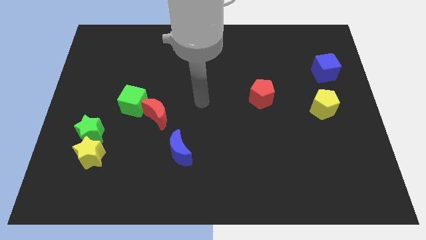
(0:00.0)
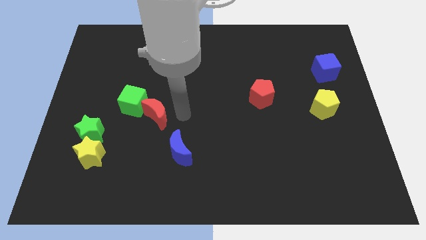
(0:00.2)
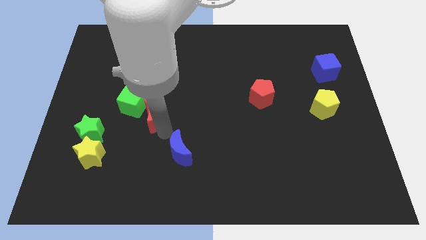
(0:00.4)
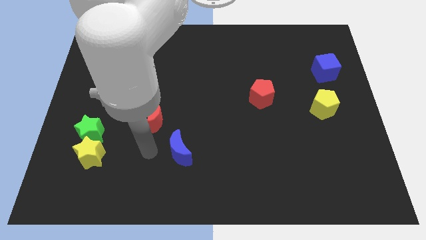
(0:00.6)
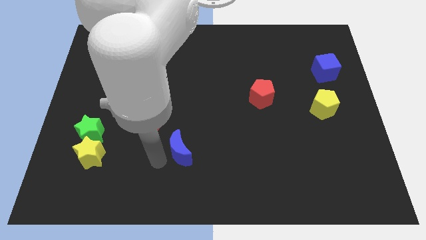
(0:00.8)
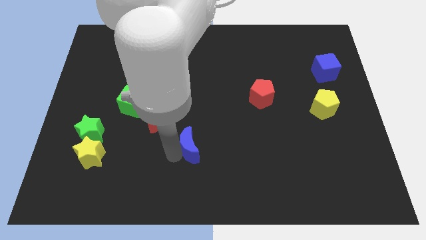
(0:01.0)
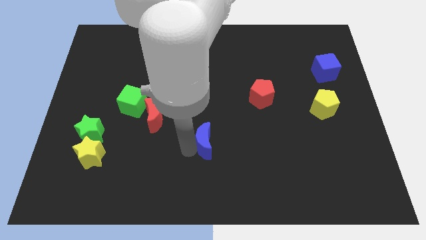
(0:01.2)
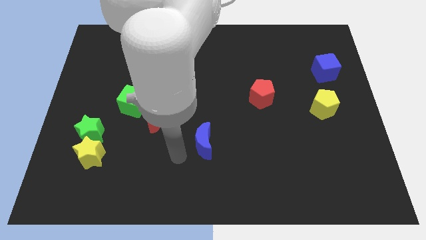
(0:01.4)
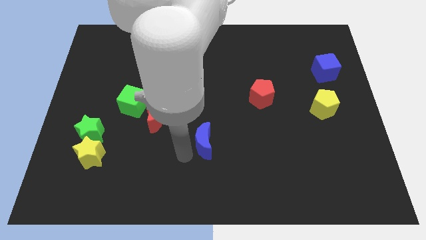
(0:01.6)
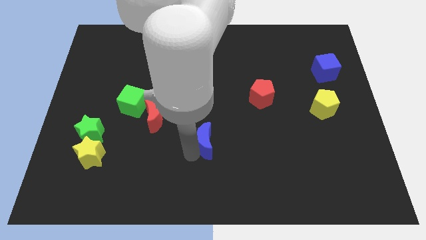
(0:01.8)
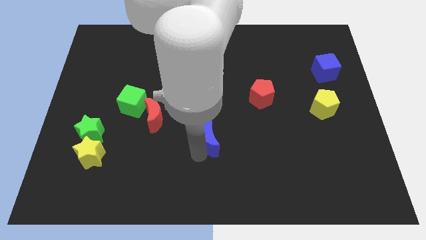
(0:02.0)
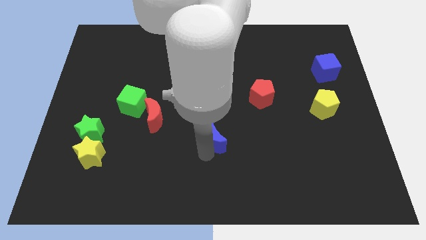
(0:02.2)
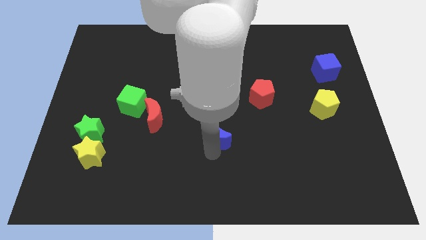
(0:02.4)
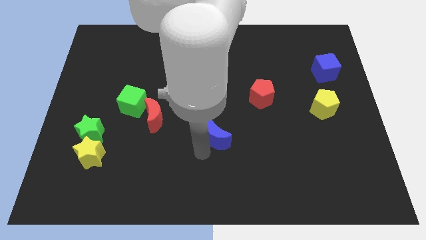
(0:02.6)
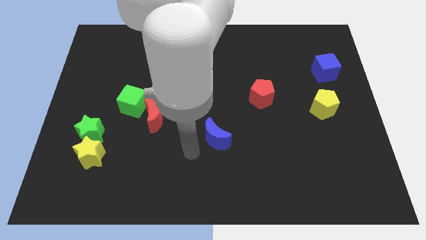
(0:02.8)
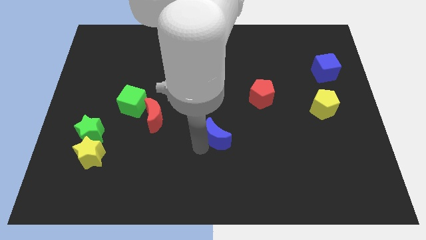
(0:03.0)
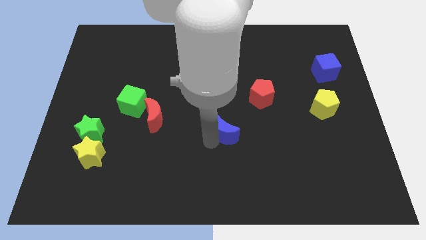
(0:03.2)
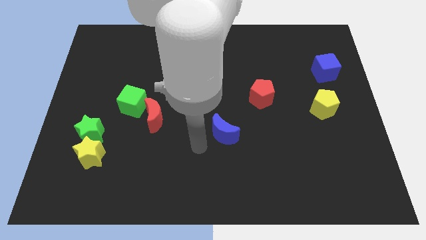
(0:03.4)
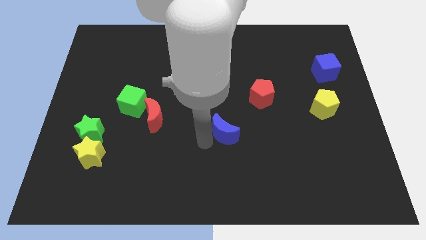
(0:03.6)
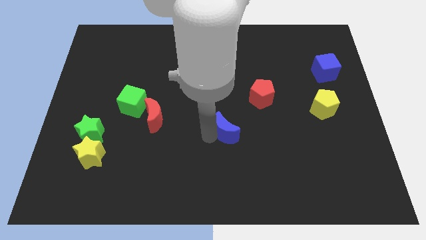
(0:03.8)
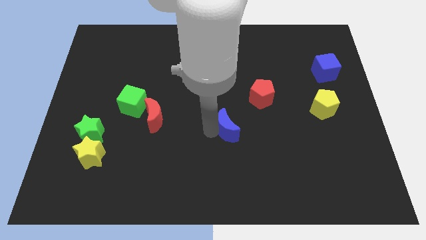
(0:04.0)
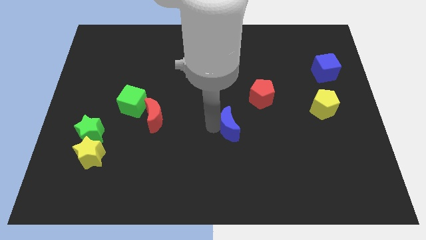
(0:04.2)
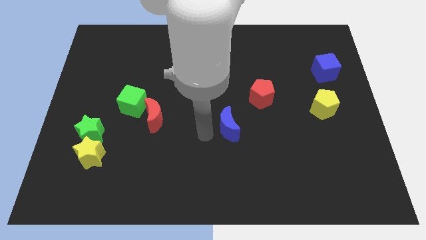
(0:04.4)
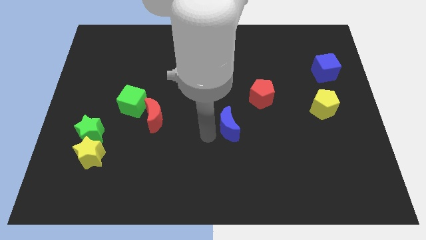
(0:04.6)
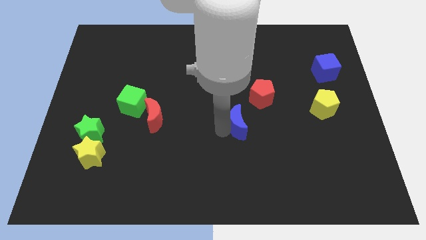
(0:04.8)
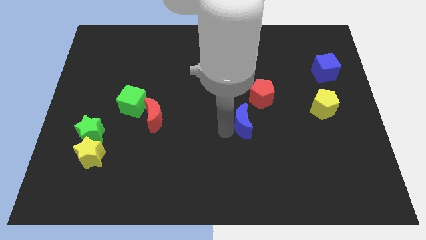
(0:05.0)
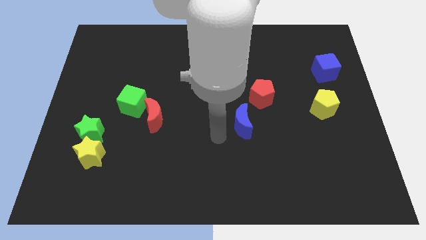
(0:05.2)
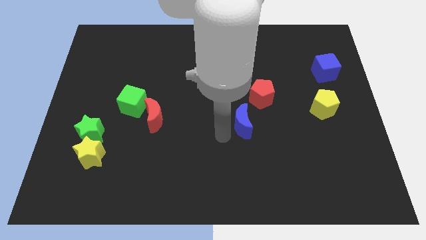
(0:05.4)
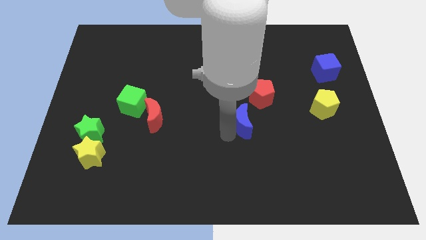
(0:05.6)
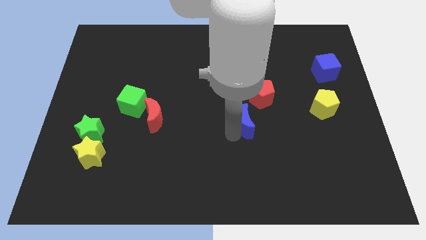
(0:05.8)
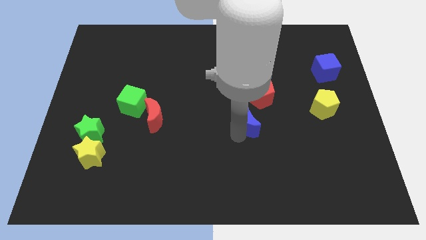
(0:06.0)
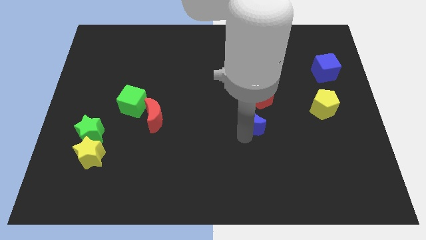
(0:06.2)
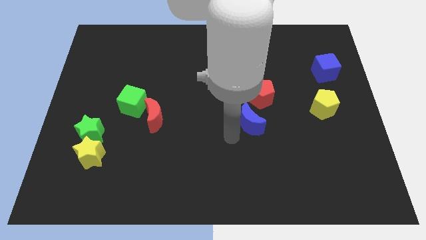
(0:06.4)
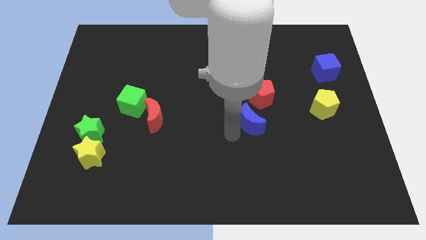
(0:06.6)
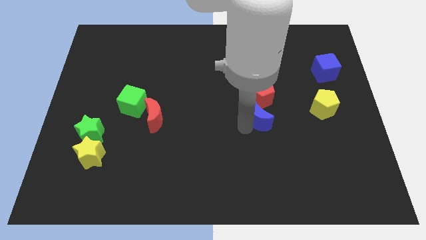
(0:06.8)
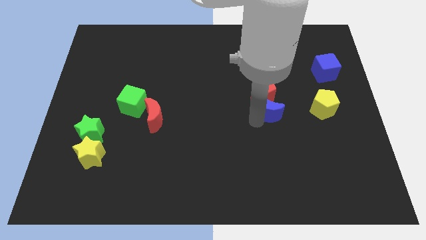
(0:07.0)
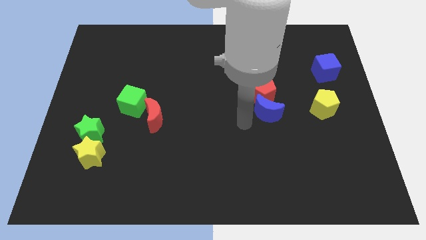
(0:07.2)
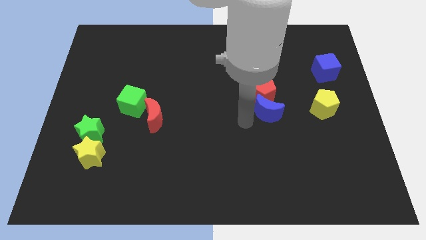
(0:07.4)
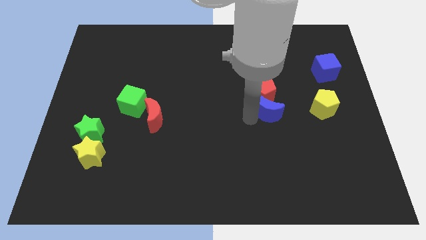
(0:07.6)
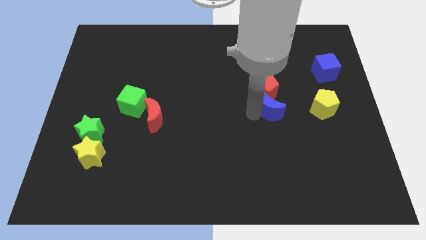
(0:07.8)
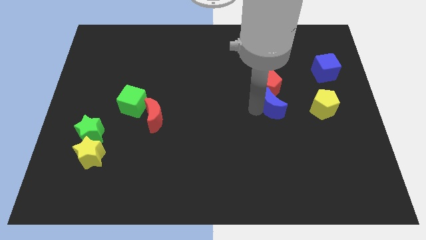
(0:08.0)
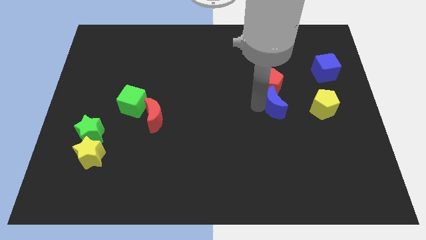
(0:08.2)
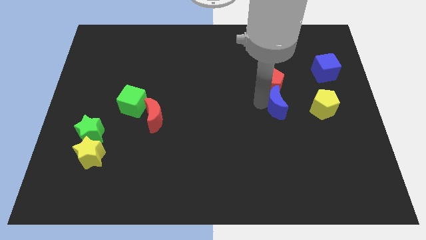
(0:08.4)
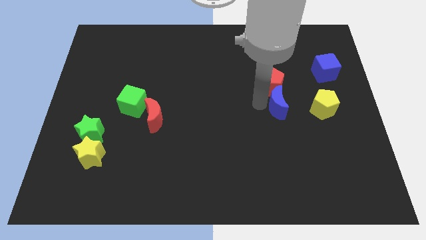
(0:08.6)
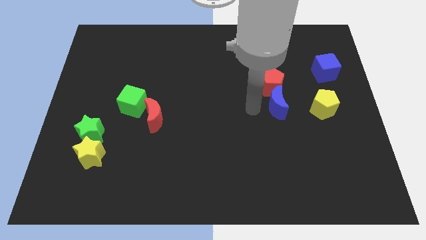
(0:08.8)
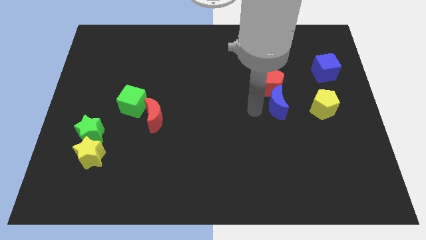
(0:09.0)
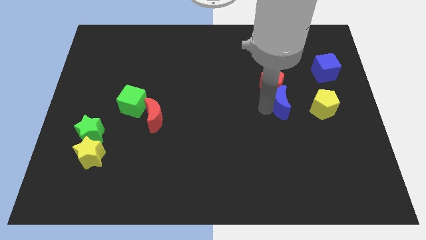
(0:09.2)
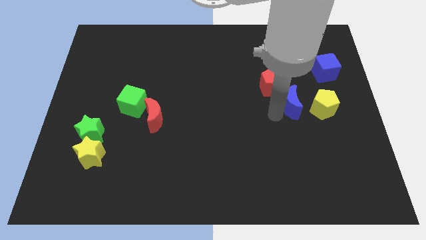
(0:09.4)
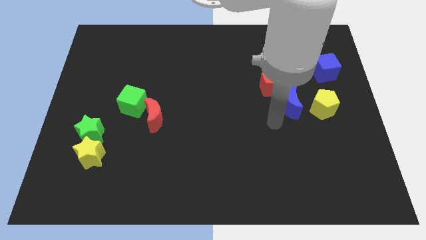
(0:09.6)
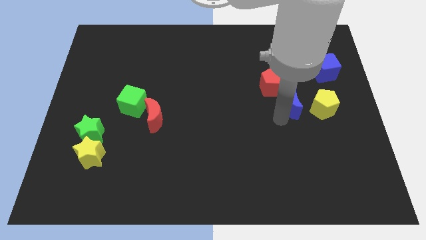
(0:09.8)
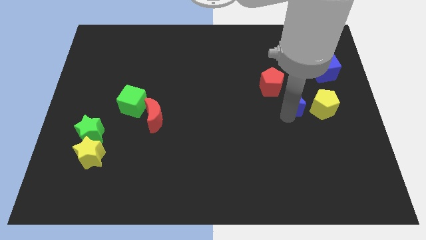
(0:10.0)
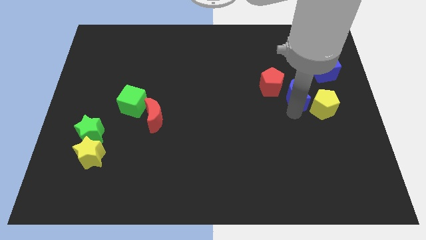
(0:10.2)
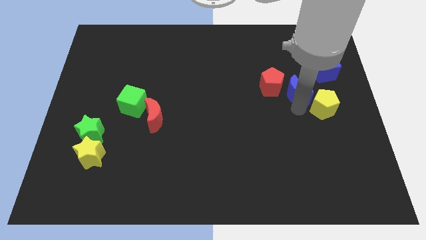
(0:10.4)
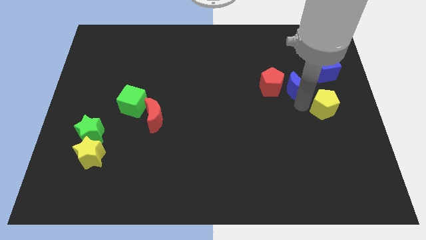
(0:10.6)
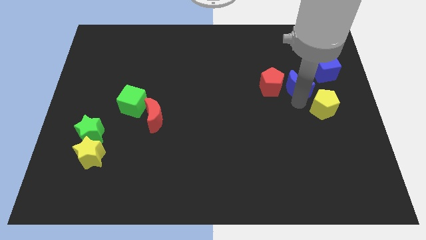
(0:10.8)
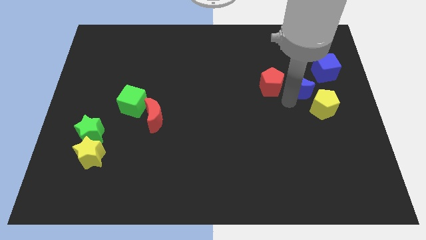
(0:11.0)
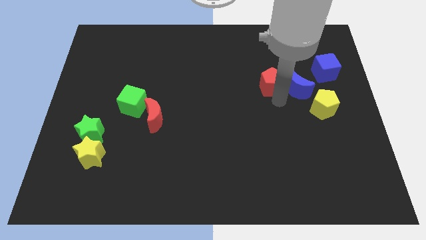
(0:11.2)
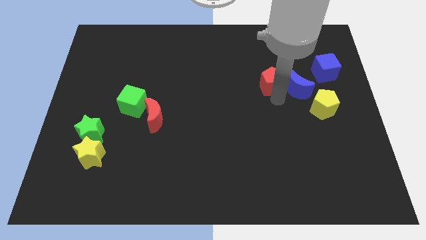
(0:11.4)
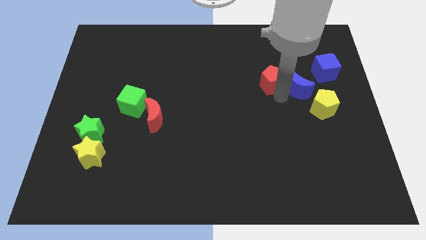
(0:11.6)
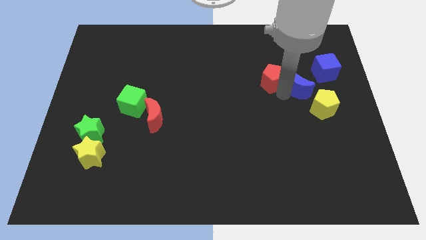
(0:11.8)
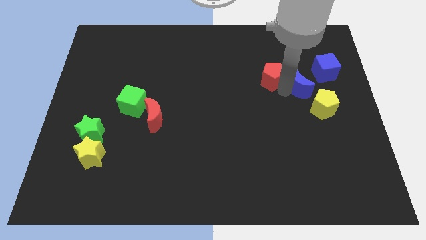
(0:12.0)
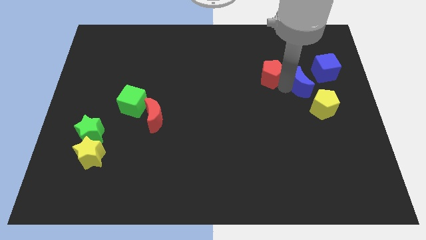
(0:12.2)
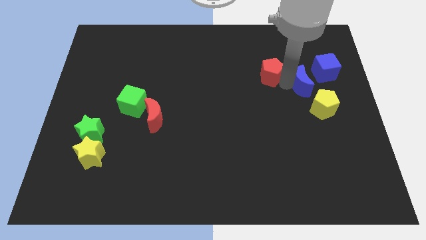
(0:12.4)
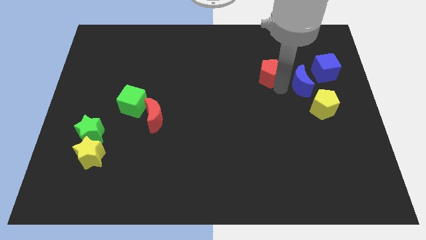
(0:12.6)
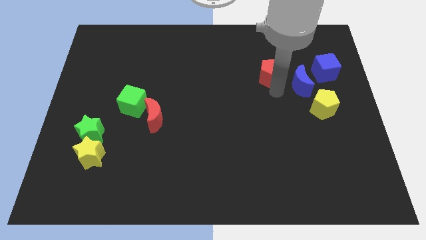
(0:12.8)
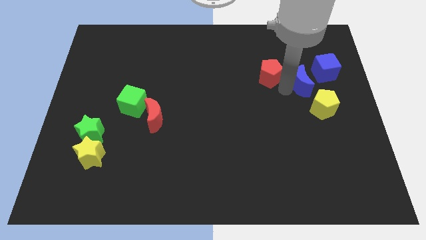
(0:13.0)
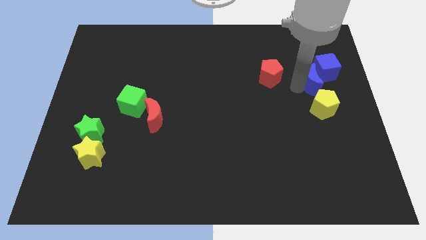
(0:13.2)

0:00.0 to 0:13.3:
move the blue moon next to the blue cube

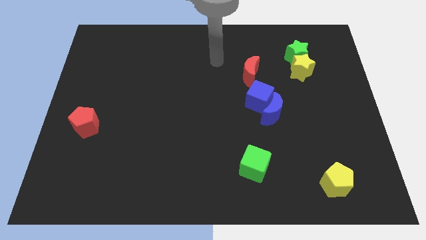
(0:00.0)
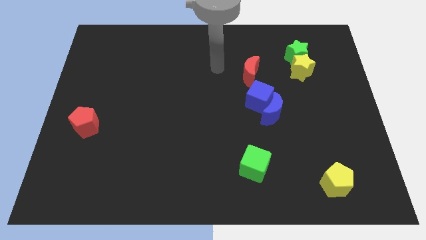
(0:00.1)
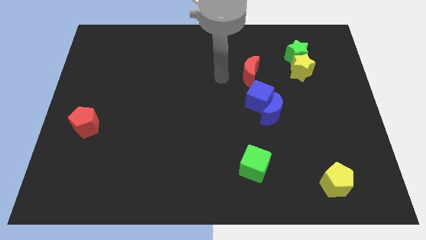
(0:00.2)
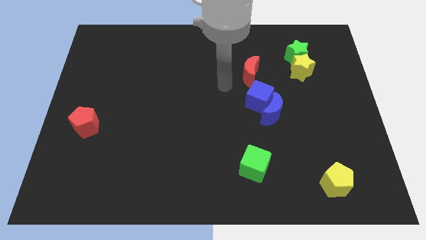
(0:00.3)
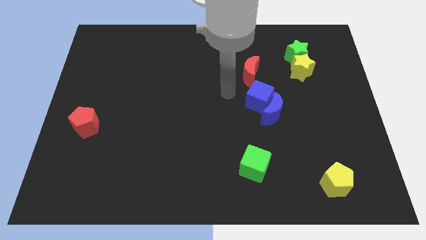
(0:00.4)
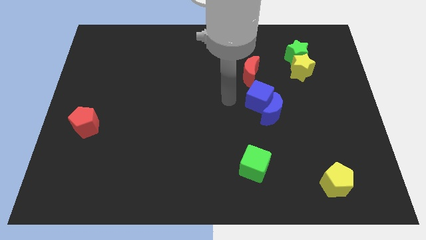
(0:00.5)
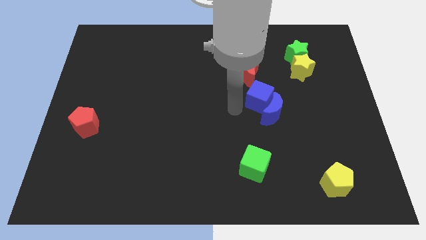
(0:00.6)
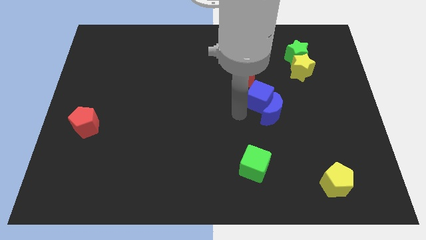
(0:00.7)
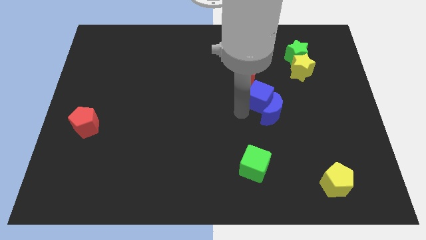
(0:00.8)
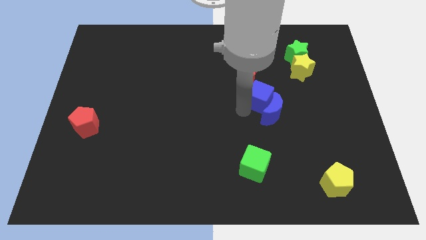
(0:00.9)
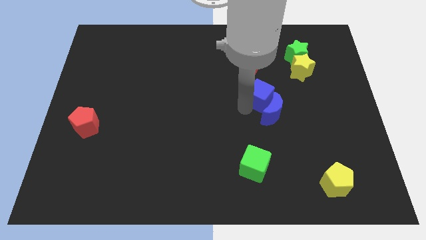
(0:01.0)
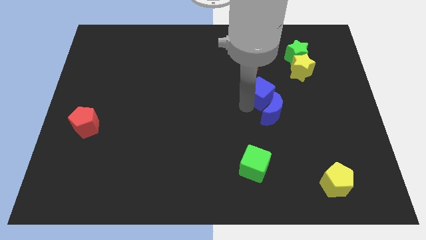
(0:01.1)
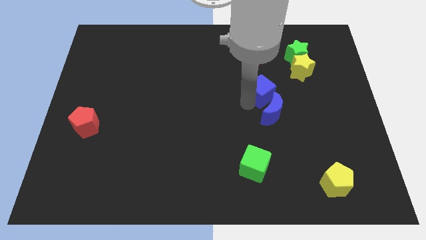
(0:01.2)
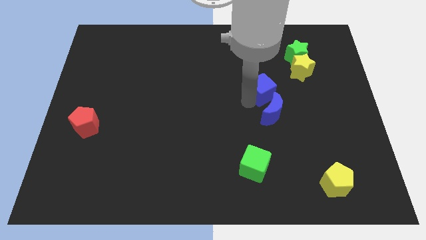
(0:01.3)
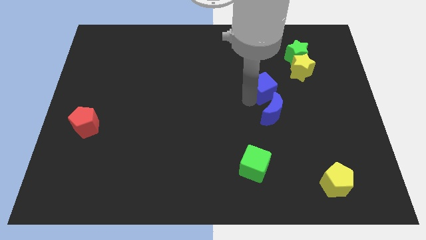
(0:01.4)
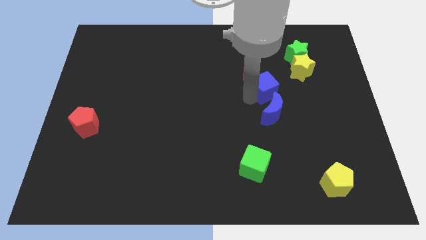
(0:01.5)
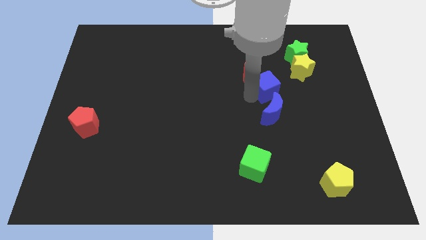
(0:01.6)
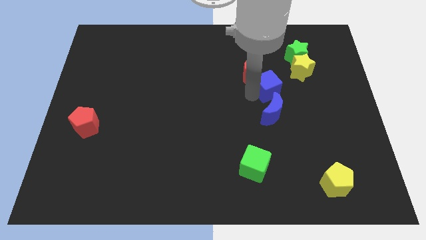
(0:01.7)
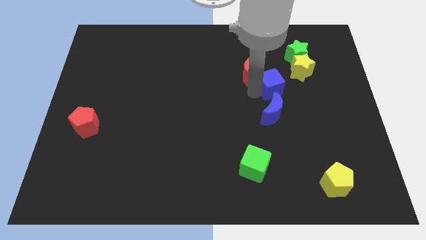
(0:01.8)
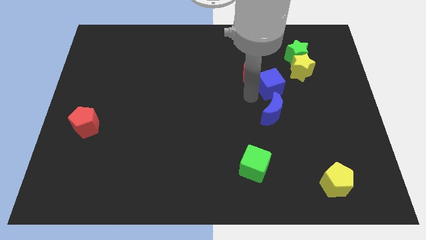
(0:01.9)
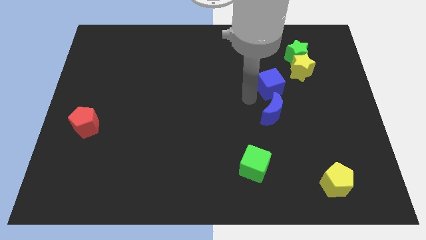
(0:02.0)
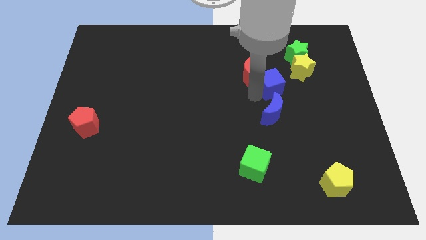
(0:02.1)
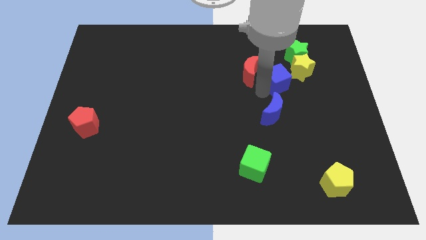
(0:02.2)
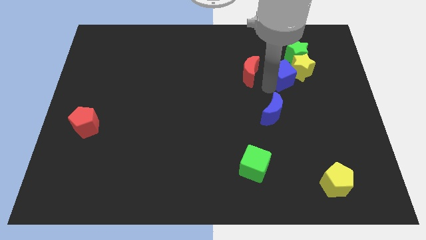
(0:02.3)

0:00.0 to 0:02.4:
push the blue cube towards the yellow star
